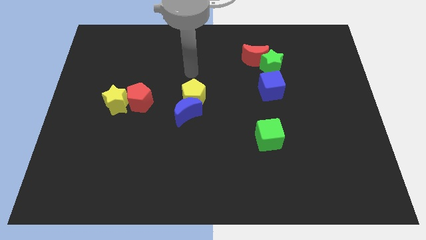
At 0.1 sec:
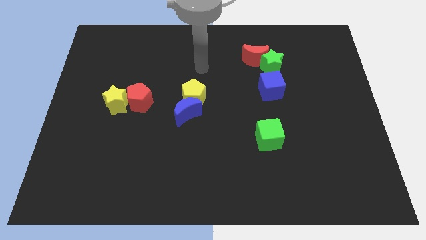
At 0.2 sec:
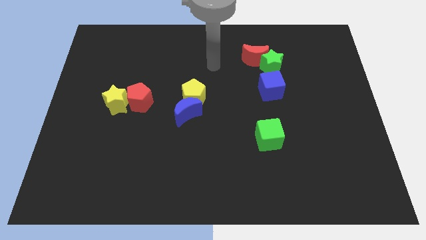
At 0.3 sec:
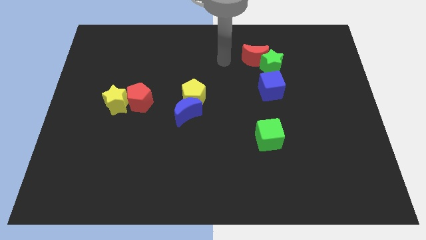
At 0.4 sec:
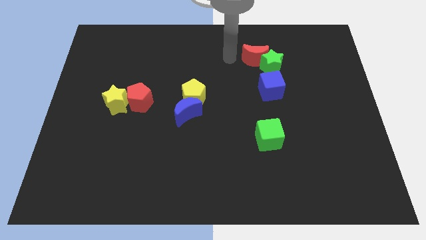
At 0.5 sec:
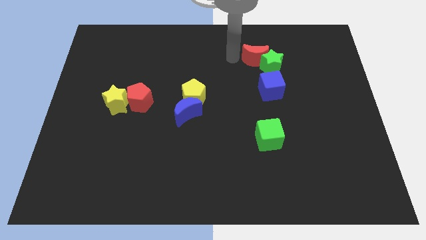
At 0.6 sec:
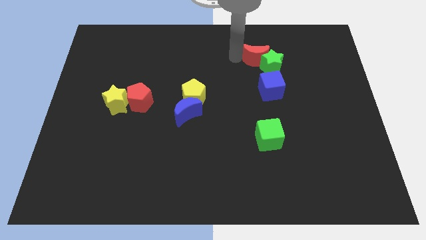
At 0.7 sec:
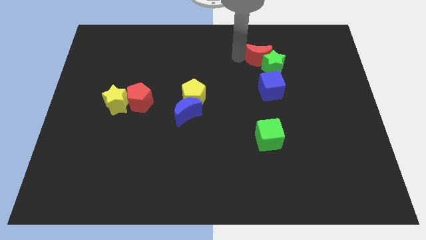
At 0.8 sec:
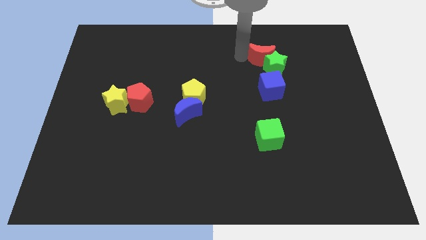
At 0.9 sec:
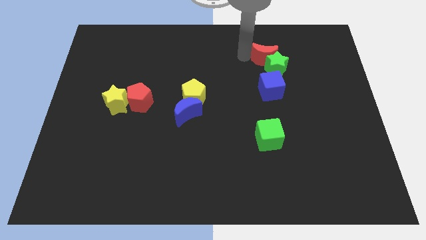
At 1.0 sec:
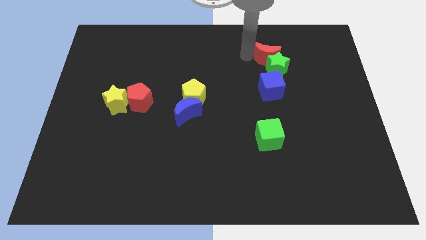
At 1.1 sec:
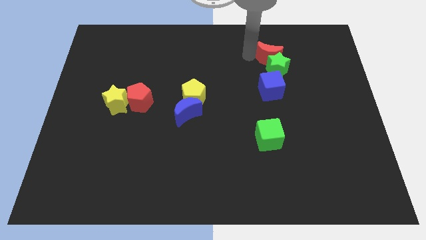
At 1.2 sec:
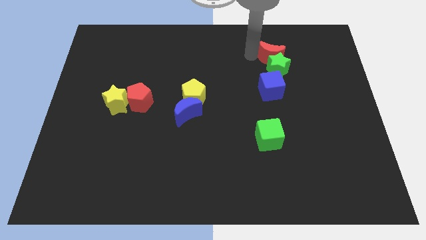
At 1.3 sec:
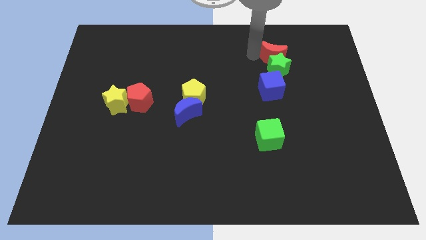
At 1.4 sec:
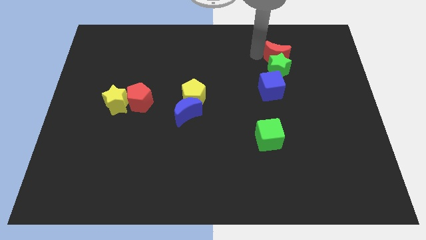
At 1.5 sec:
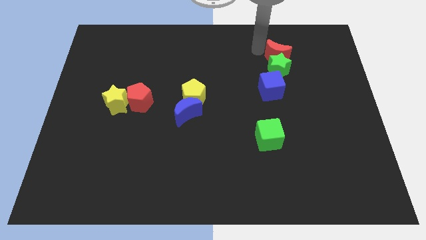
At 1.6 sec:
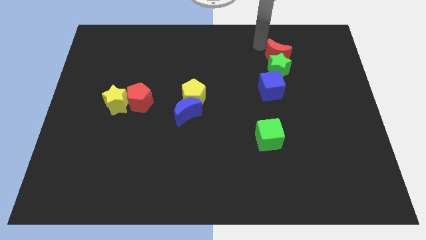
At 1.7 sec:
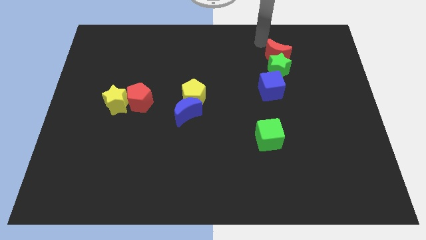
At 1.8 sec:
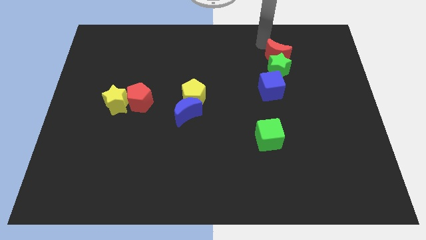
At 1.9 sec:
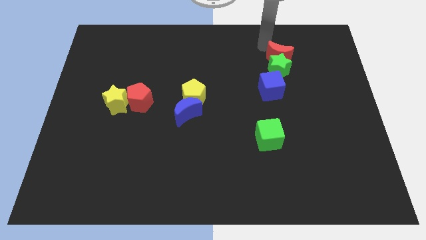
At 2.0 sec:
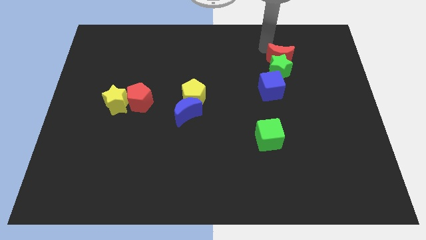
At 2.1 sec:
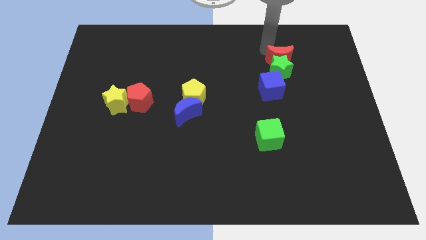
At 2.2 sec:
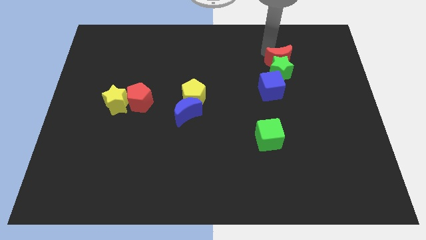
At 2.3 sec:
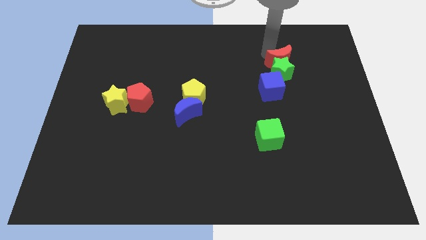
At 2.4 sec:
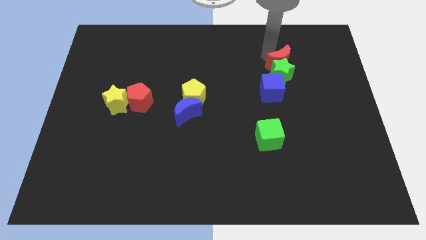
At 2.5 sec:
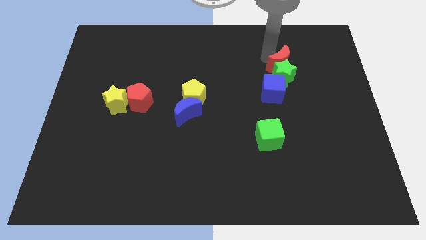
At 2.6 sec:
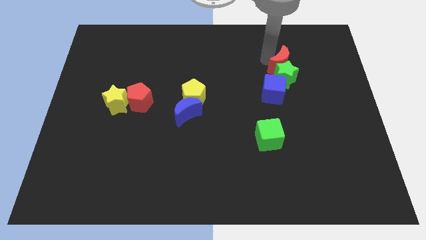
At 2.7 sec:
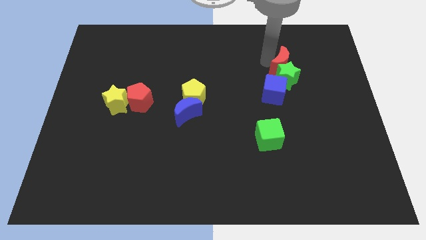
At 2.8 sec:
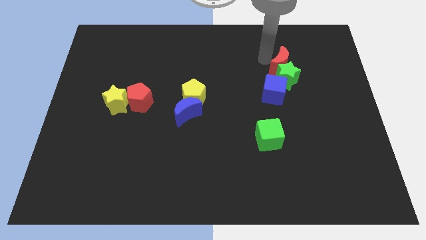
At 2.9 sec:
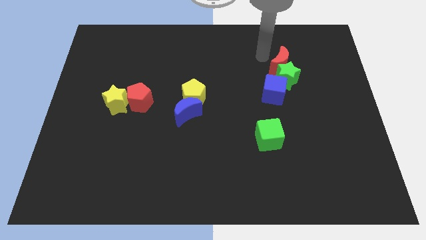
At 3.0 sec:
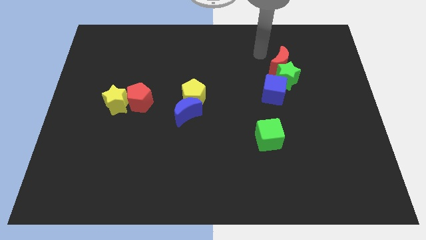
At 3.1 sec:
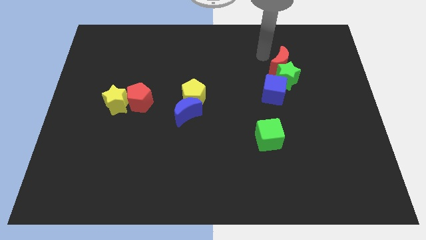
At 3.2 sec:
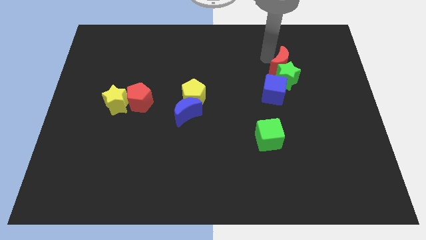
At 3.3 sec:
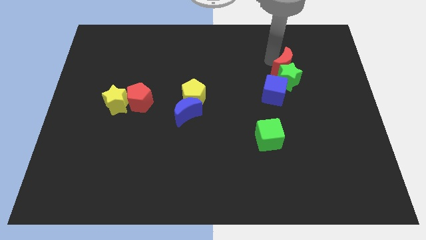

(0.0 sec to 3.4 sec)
push the red moon a little bit down and then right

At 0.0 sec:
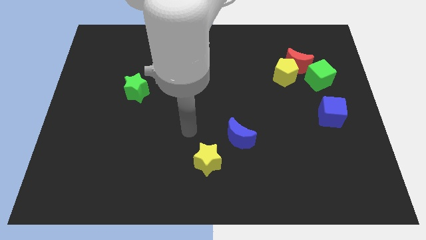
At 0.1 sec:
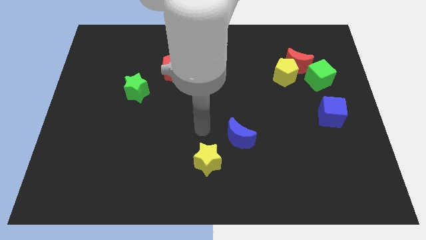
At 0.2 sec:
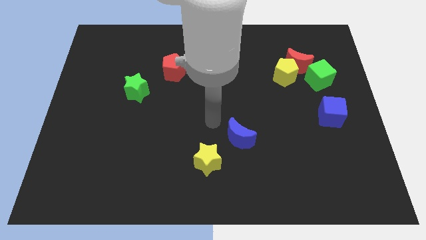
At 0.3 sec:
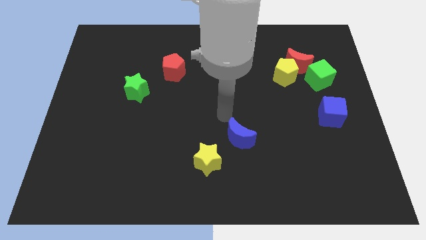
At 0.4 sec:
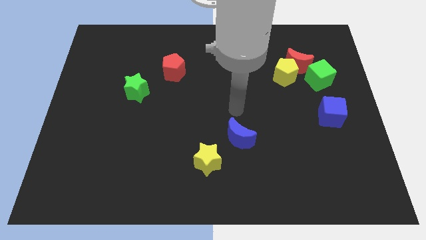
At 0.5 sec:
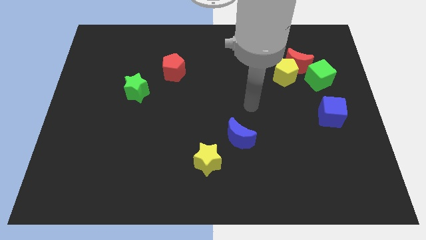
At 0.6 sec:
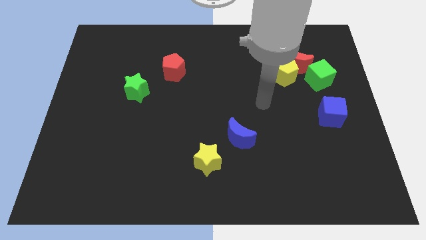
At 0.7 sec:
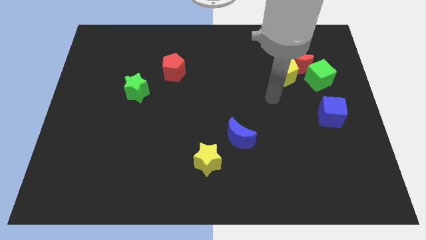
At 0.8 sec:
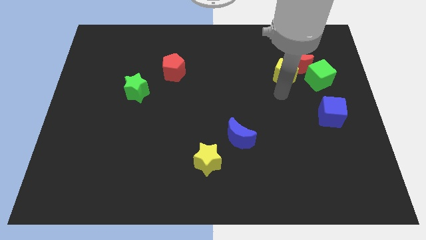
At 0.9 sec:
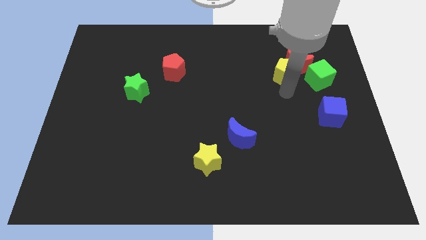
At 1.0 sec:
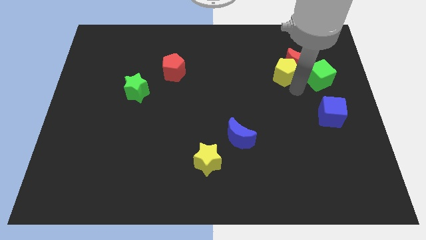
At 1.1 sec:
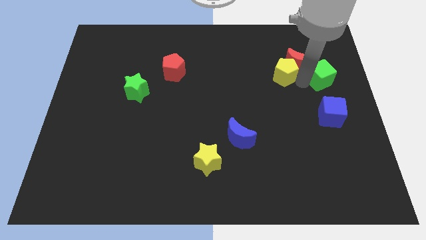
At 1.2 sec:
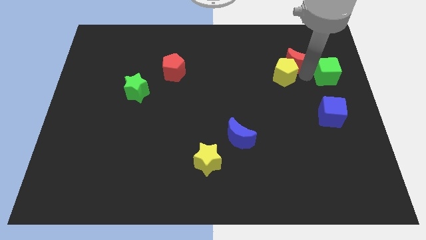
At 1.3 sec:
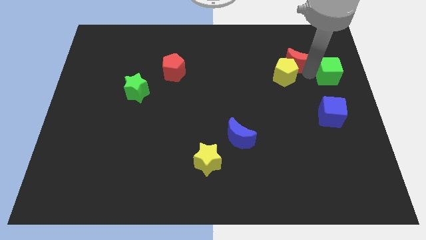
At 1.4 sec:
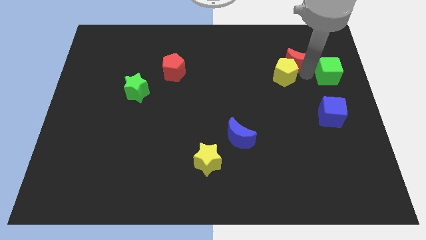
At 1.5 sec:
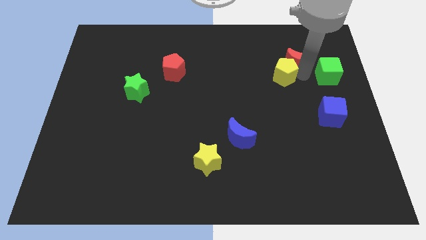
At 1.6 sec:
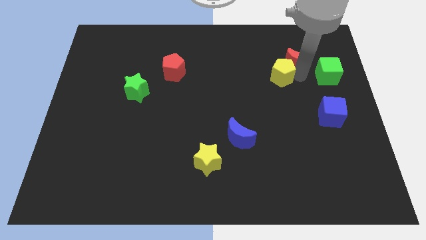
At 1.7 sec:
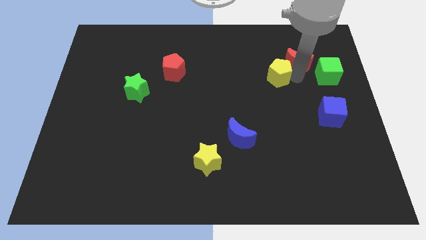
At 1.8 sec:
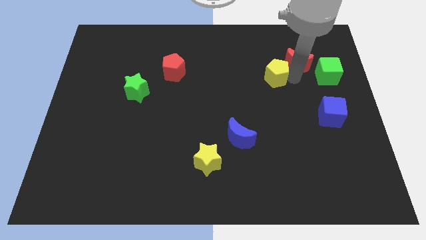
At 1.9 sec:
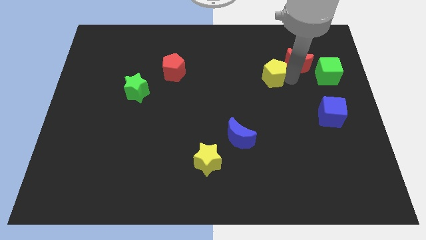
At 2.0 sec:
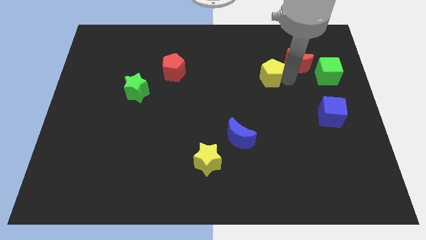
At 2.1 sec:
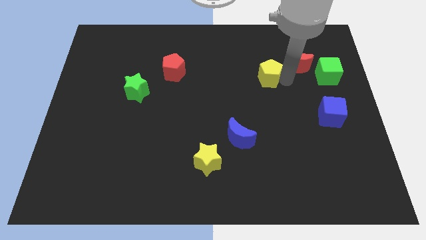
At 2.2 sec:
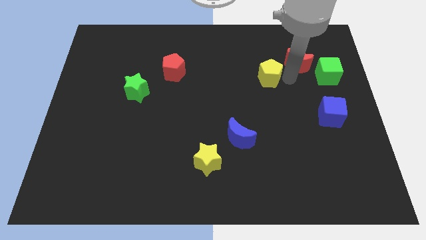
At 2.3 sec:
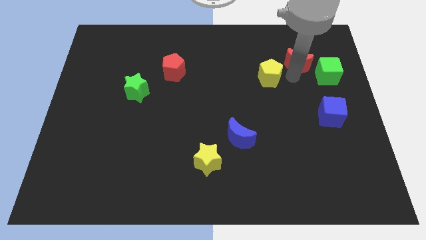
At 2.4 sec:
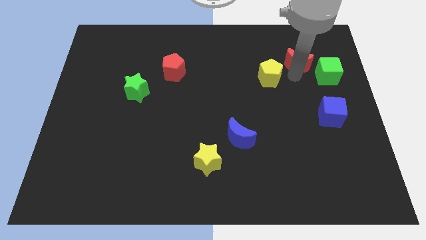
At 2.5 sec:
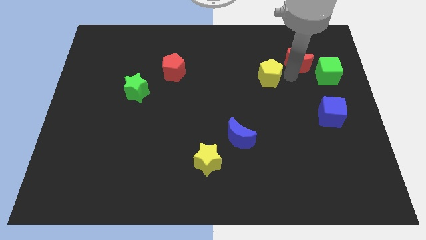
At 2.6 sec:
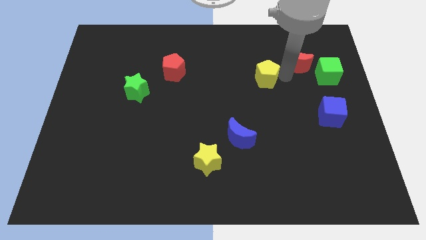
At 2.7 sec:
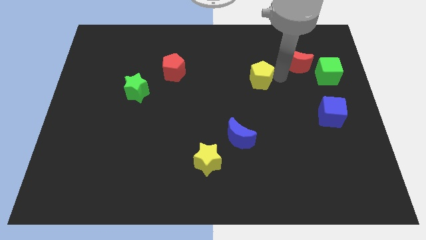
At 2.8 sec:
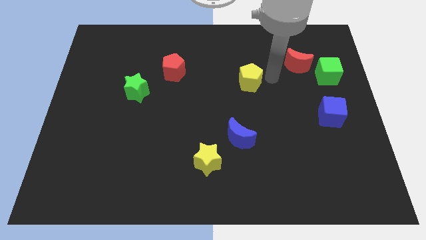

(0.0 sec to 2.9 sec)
move the yellow pentagon a little bit left

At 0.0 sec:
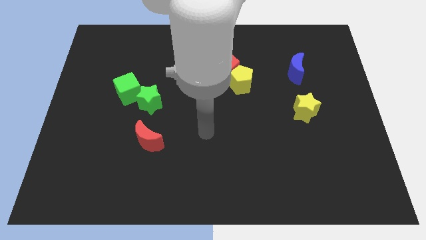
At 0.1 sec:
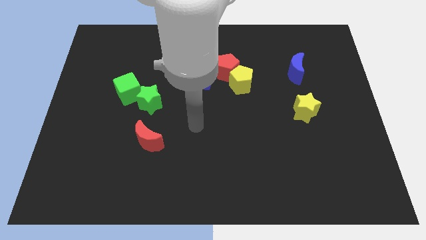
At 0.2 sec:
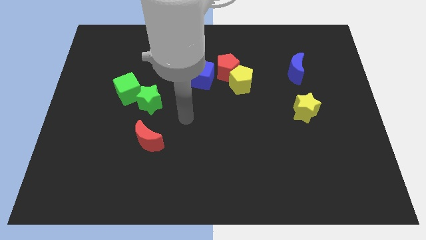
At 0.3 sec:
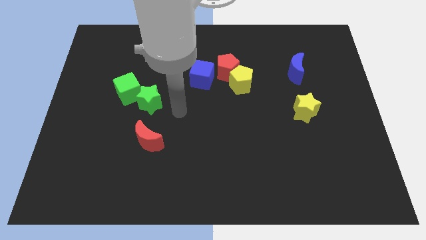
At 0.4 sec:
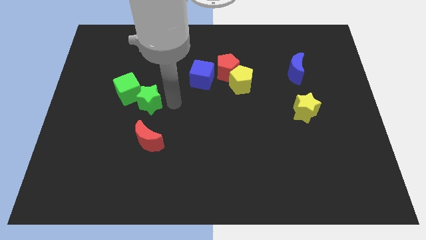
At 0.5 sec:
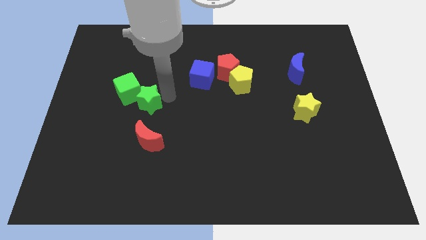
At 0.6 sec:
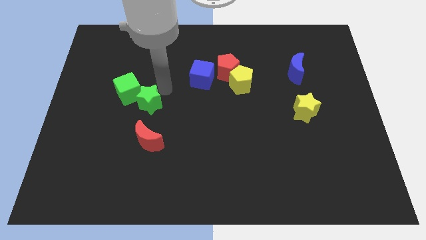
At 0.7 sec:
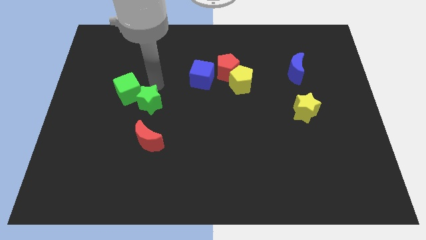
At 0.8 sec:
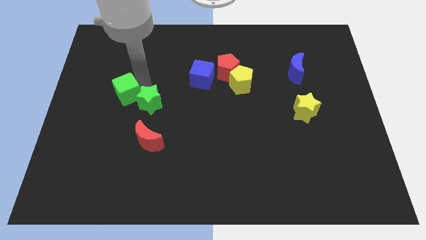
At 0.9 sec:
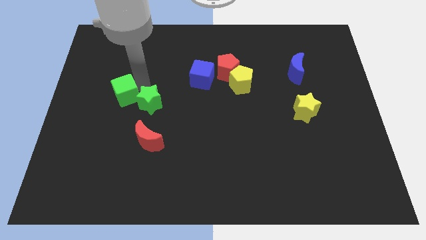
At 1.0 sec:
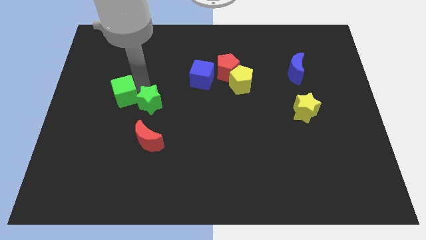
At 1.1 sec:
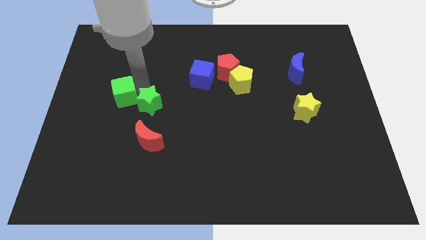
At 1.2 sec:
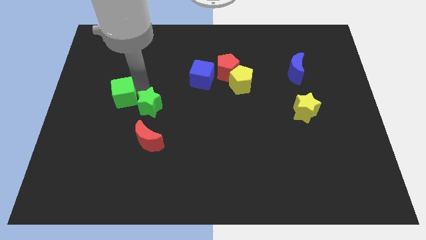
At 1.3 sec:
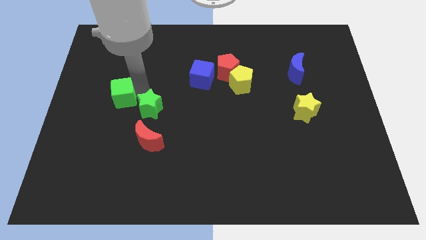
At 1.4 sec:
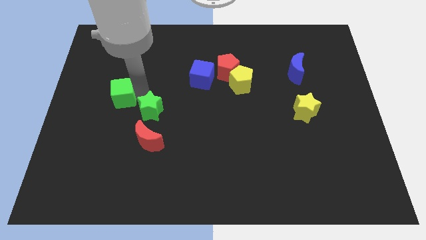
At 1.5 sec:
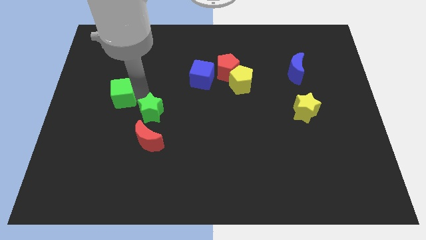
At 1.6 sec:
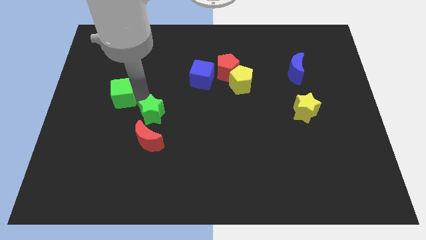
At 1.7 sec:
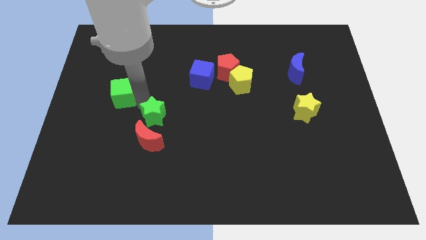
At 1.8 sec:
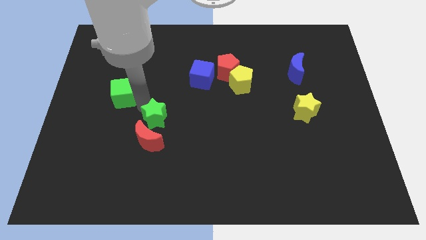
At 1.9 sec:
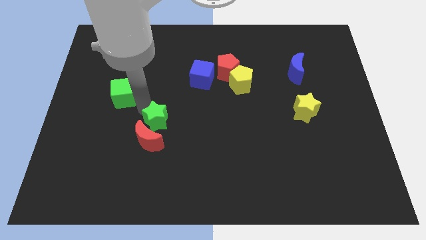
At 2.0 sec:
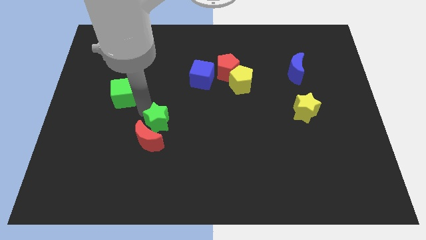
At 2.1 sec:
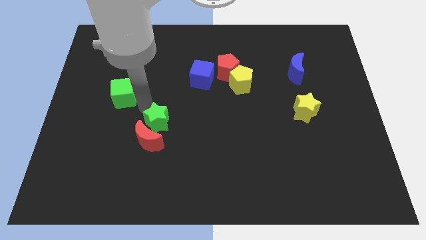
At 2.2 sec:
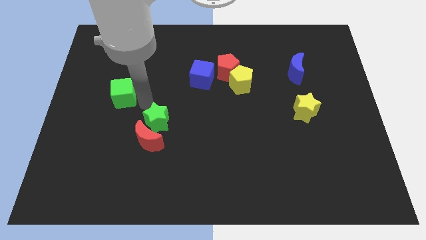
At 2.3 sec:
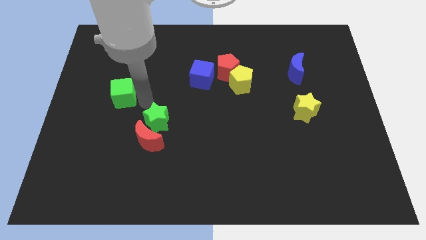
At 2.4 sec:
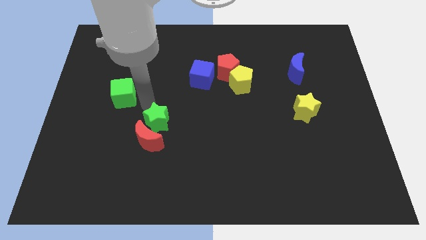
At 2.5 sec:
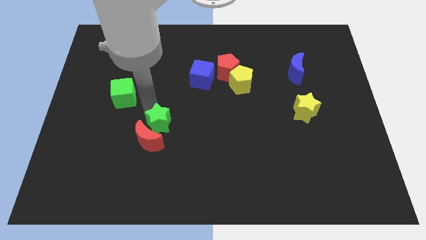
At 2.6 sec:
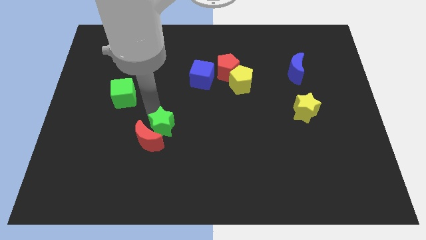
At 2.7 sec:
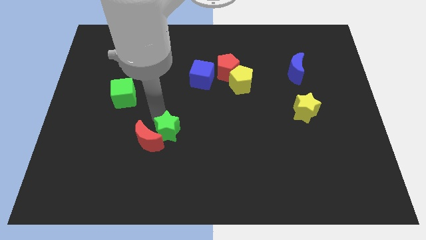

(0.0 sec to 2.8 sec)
slightly push the green star downwards
